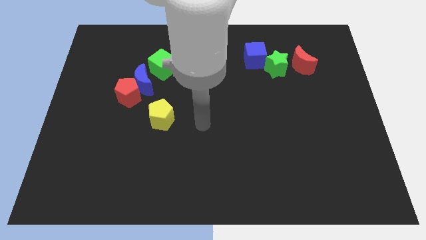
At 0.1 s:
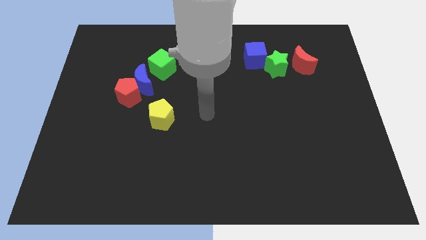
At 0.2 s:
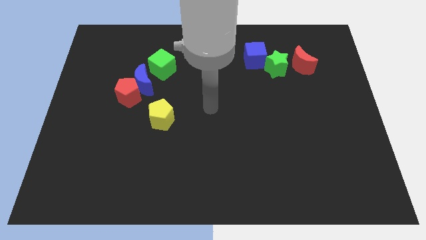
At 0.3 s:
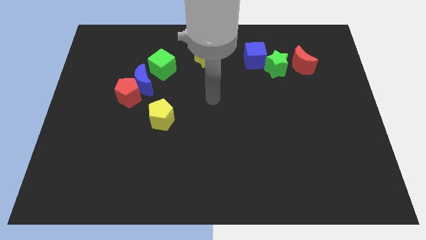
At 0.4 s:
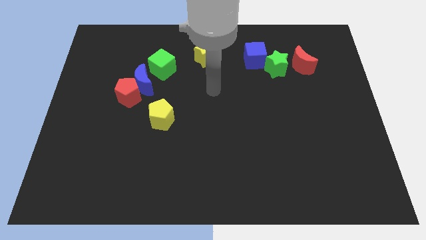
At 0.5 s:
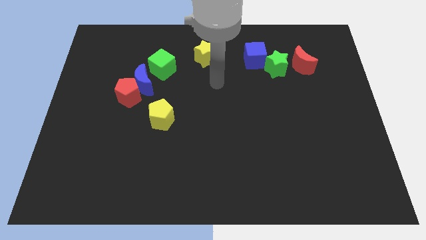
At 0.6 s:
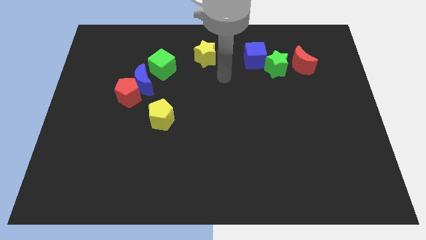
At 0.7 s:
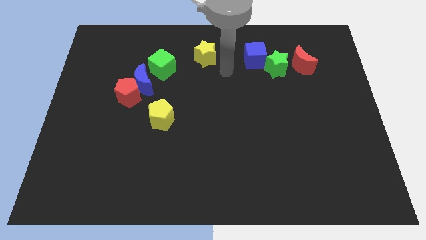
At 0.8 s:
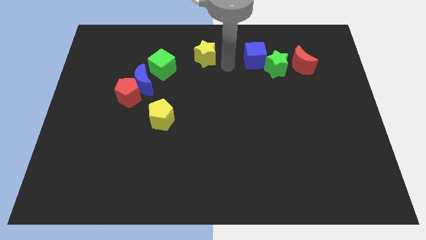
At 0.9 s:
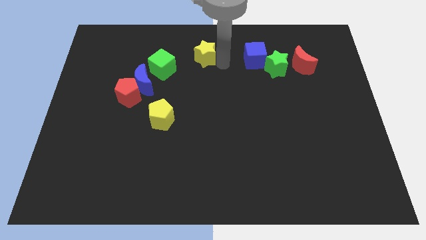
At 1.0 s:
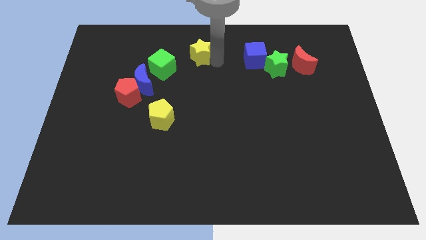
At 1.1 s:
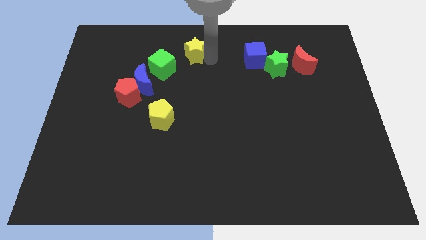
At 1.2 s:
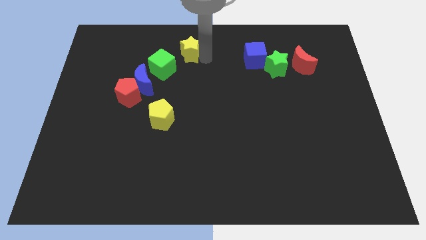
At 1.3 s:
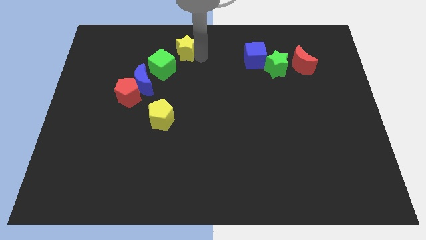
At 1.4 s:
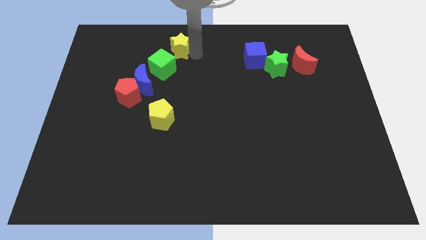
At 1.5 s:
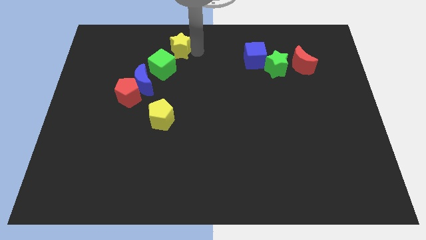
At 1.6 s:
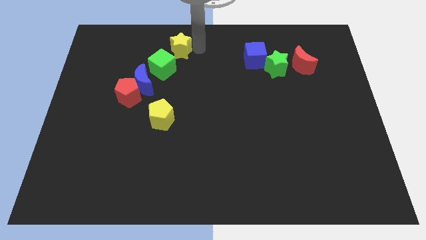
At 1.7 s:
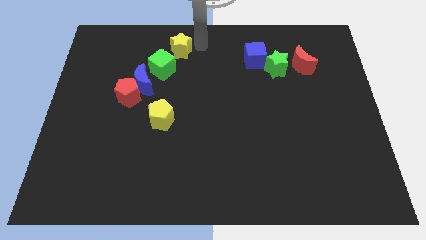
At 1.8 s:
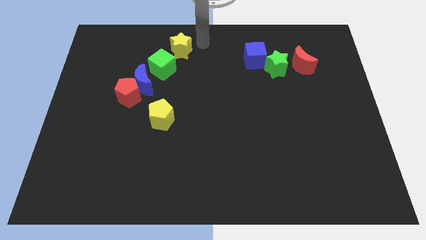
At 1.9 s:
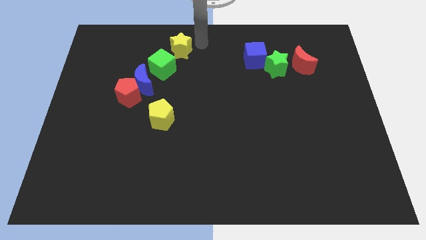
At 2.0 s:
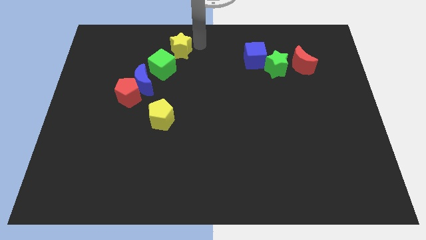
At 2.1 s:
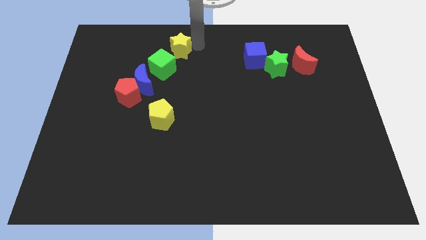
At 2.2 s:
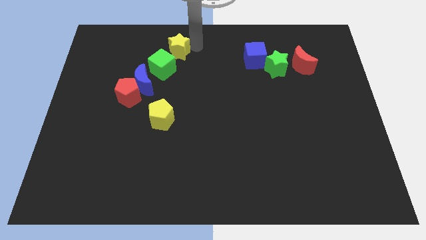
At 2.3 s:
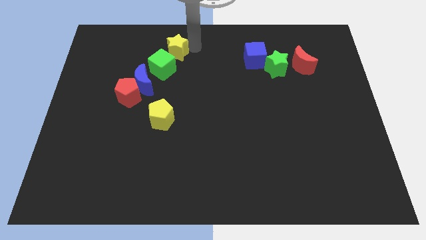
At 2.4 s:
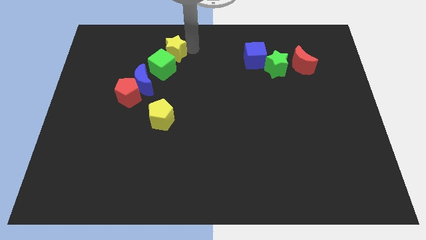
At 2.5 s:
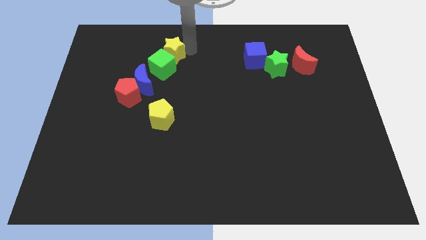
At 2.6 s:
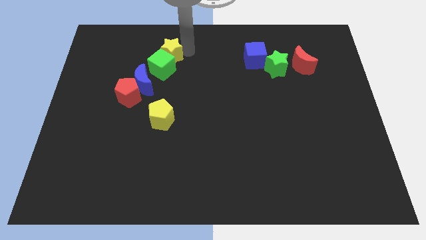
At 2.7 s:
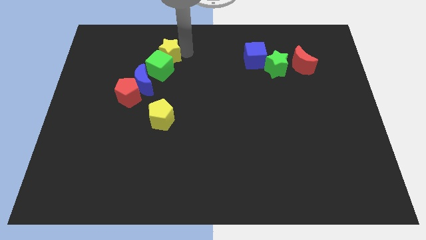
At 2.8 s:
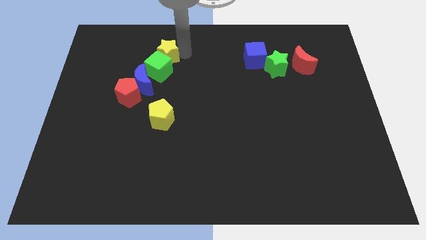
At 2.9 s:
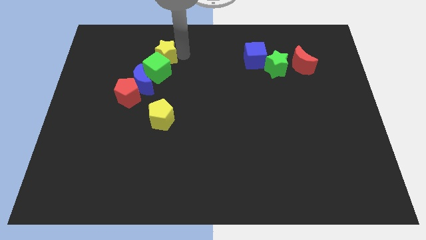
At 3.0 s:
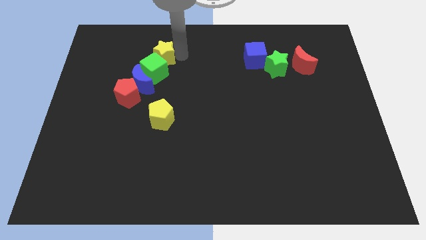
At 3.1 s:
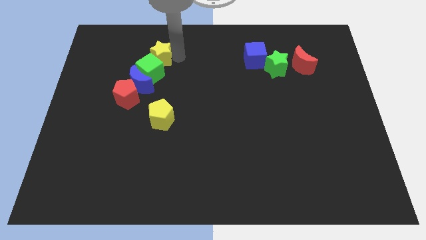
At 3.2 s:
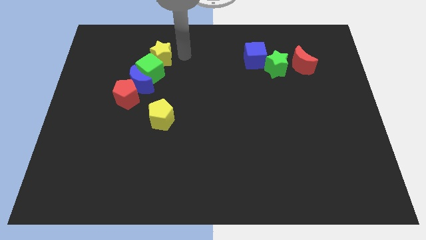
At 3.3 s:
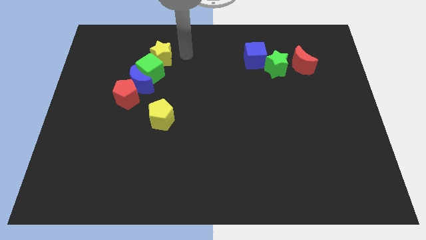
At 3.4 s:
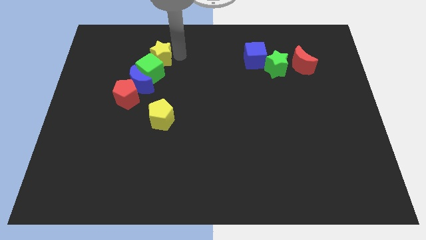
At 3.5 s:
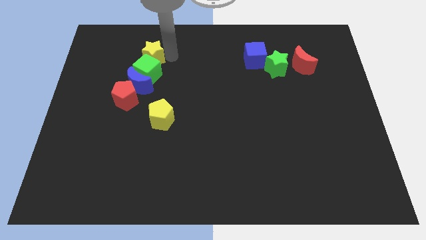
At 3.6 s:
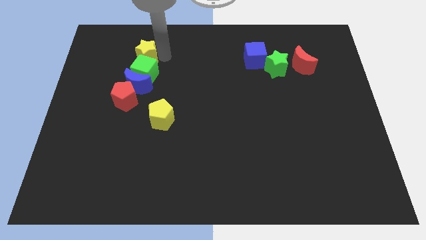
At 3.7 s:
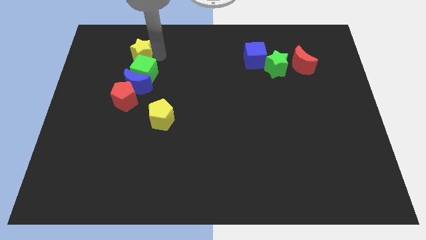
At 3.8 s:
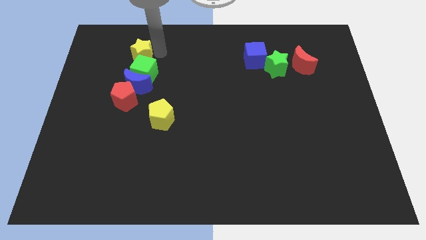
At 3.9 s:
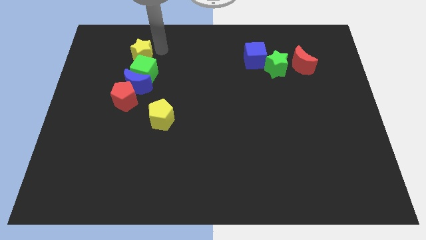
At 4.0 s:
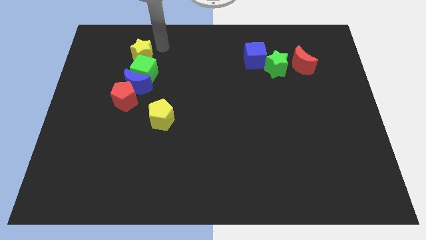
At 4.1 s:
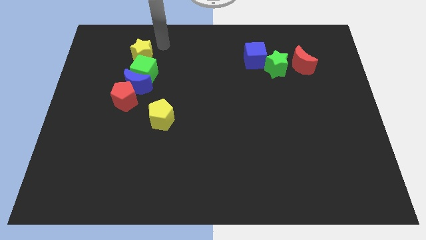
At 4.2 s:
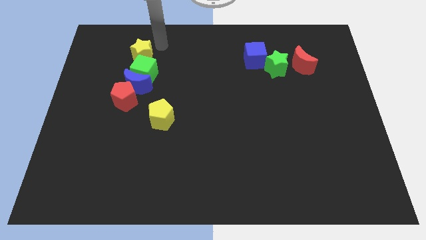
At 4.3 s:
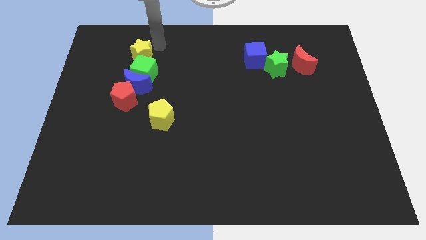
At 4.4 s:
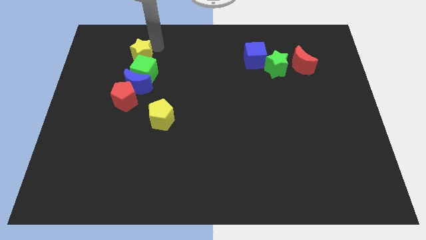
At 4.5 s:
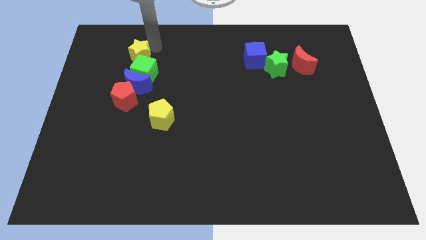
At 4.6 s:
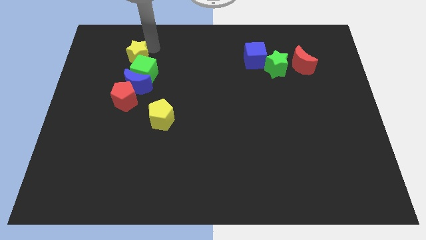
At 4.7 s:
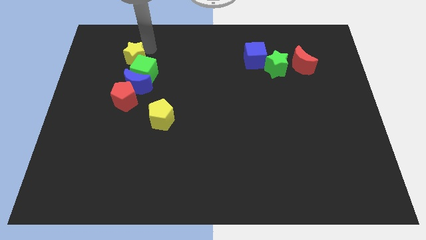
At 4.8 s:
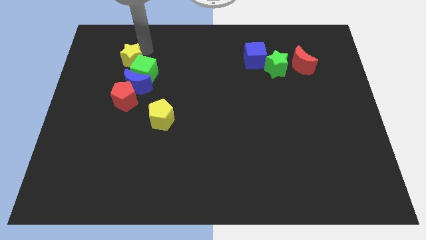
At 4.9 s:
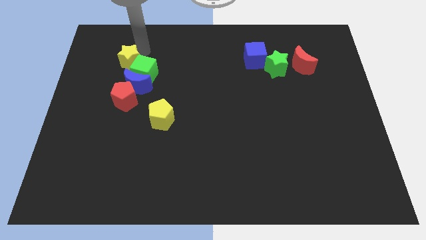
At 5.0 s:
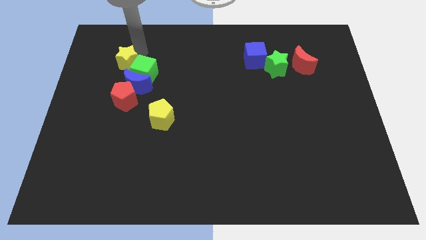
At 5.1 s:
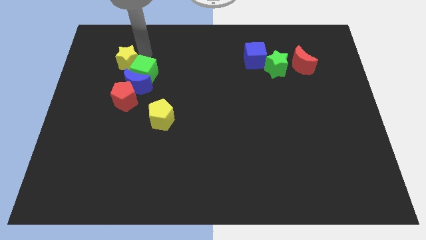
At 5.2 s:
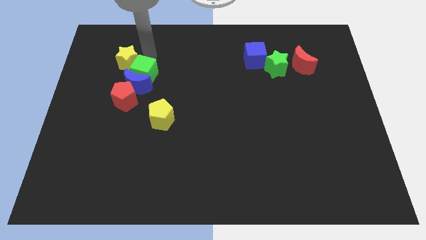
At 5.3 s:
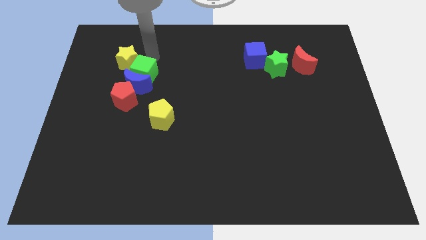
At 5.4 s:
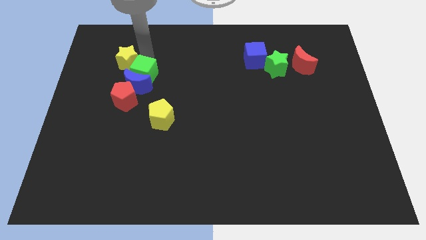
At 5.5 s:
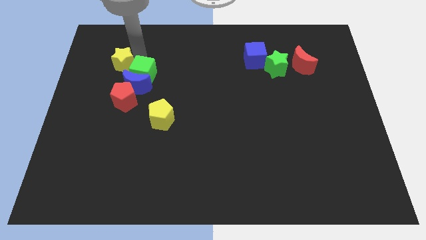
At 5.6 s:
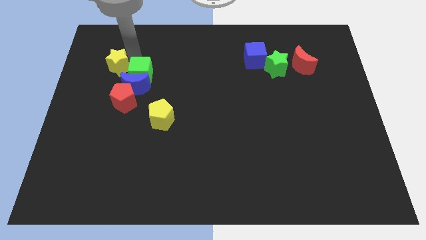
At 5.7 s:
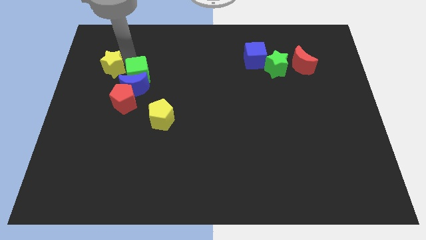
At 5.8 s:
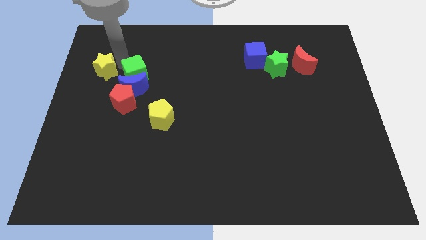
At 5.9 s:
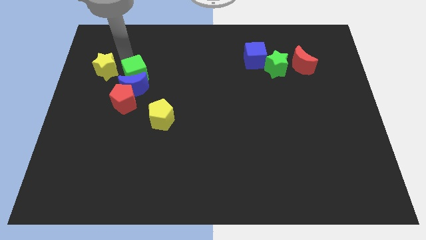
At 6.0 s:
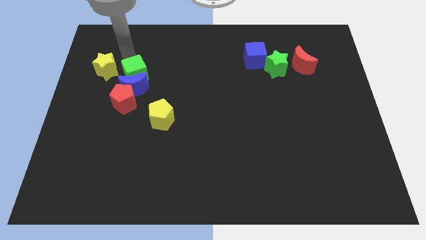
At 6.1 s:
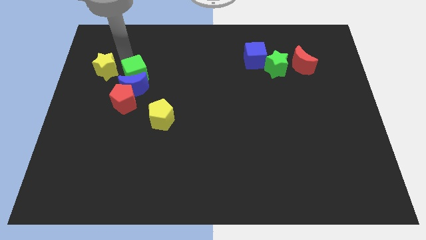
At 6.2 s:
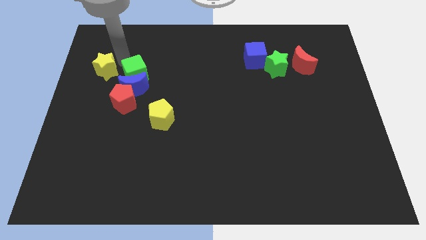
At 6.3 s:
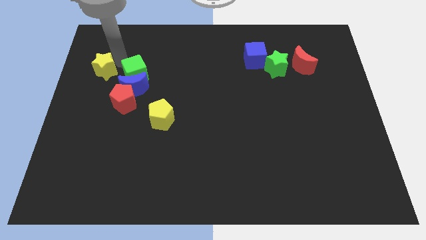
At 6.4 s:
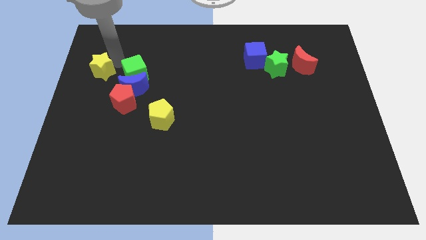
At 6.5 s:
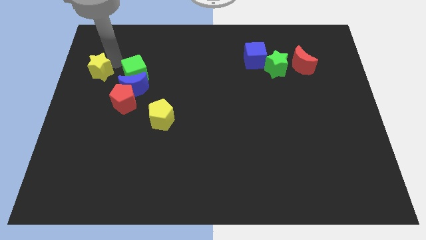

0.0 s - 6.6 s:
put the yellow star to the left side
